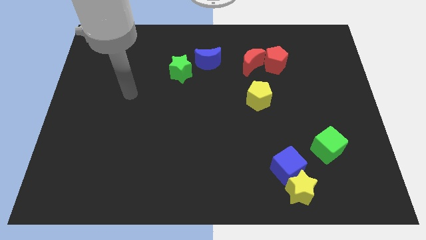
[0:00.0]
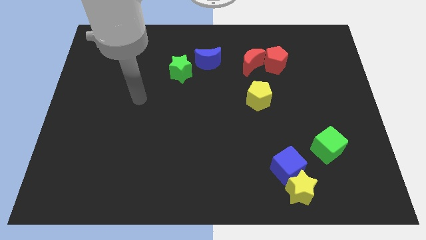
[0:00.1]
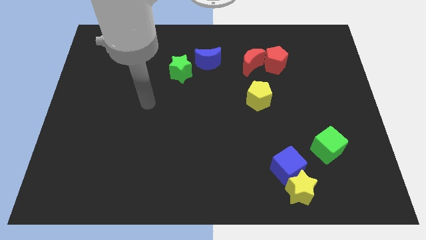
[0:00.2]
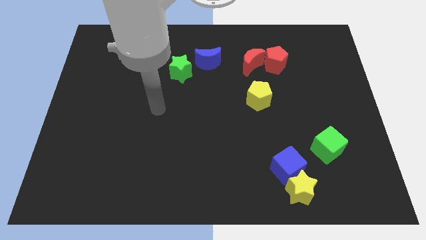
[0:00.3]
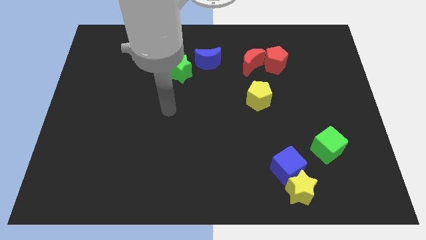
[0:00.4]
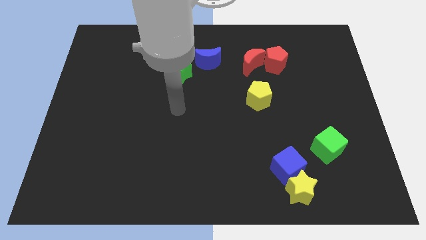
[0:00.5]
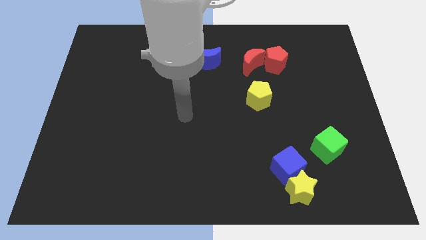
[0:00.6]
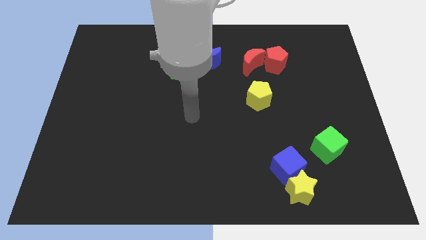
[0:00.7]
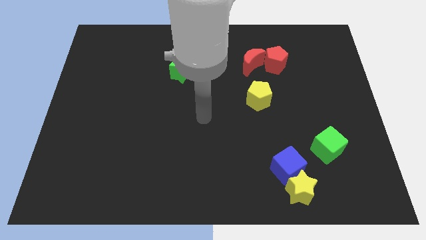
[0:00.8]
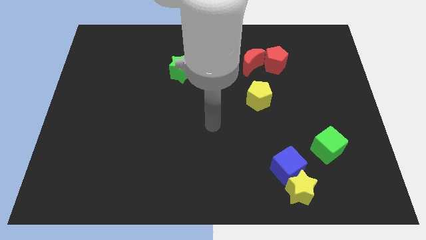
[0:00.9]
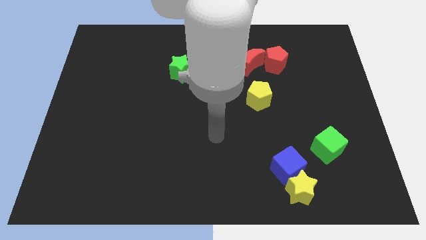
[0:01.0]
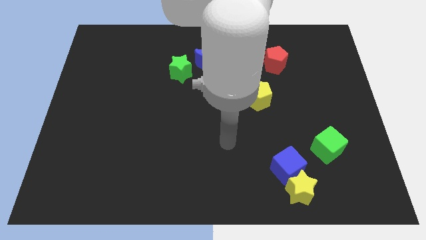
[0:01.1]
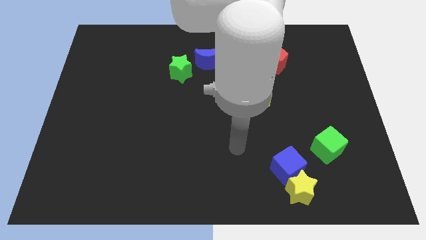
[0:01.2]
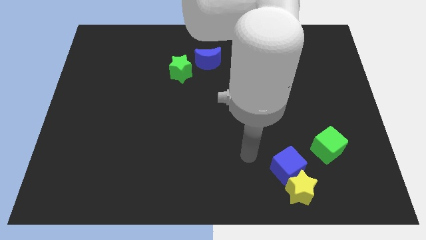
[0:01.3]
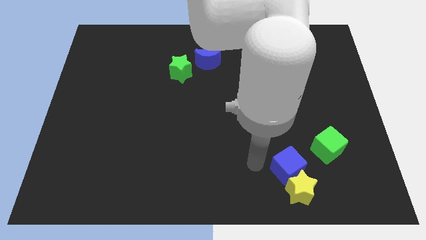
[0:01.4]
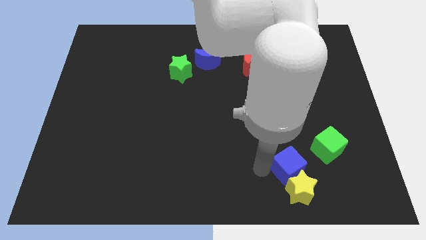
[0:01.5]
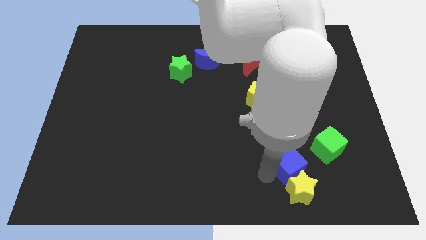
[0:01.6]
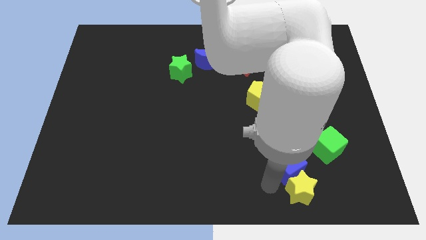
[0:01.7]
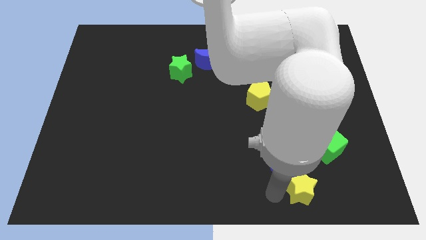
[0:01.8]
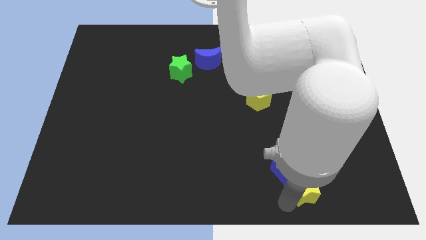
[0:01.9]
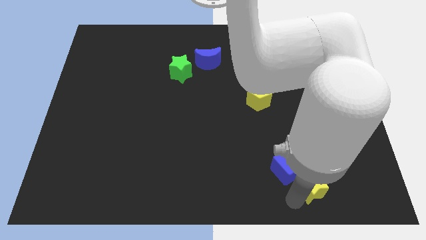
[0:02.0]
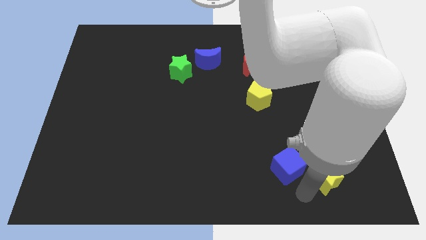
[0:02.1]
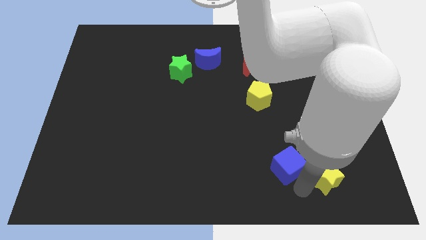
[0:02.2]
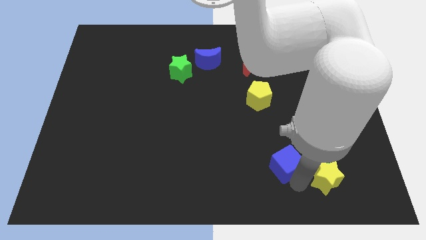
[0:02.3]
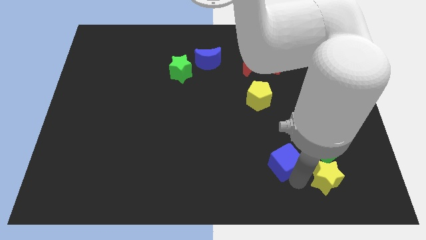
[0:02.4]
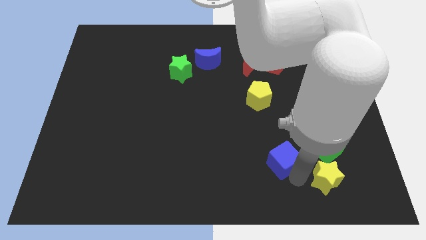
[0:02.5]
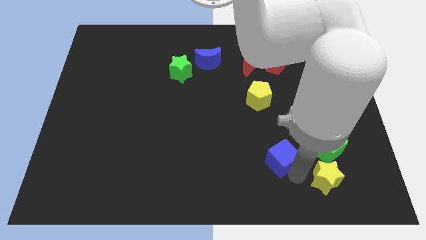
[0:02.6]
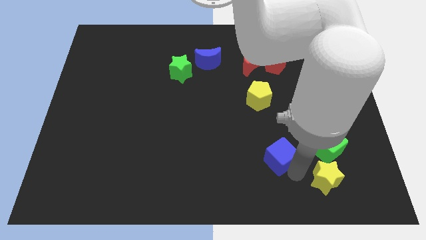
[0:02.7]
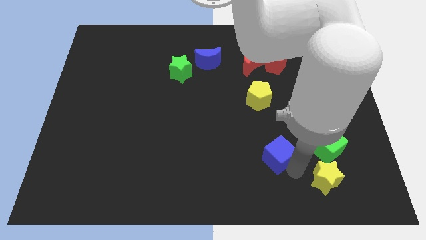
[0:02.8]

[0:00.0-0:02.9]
pull the blue cube apart from the yellow star

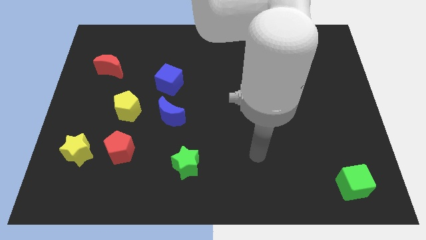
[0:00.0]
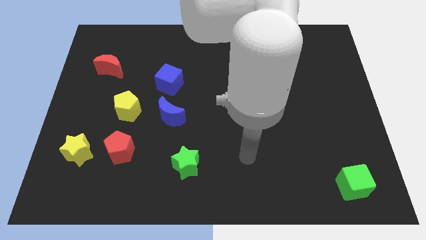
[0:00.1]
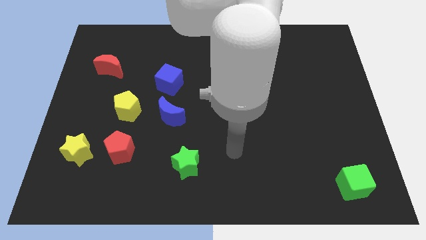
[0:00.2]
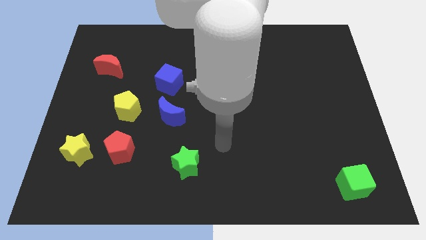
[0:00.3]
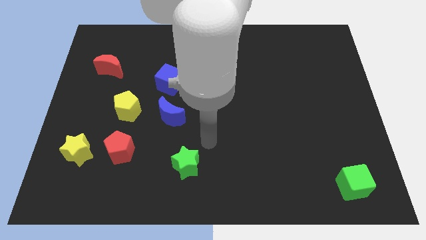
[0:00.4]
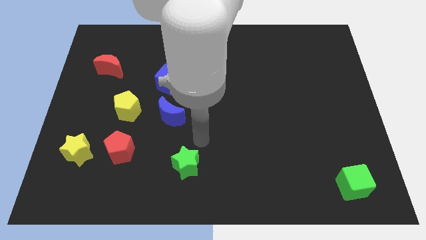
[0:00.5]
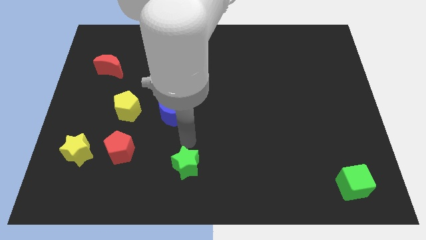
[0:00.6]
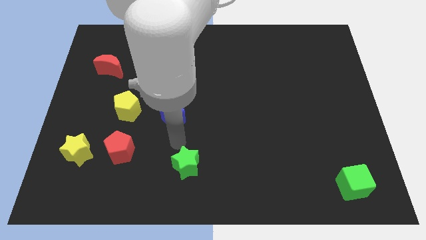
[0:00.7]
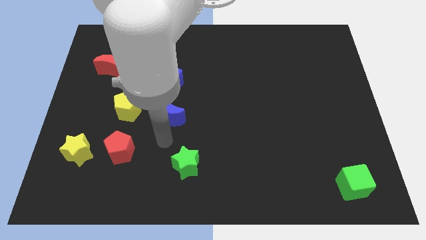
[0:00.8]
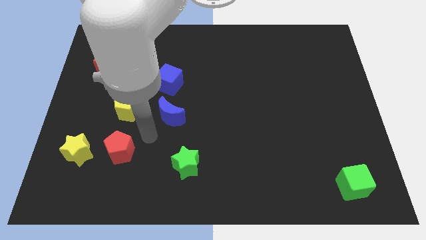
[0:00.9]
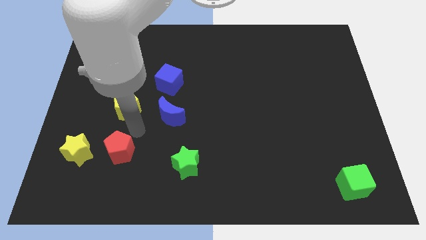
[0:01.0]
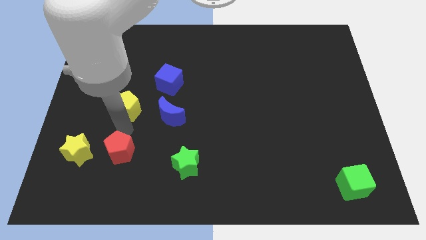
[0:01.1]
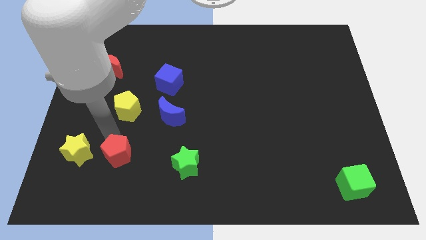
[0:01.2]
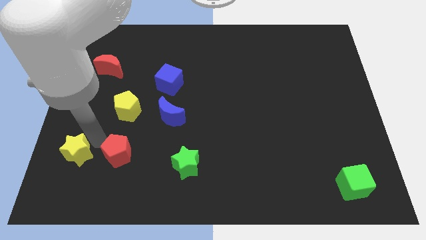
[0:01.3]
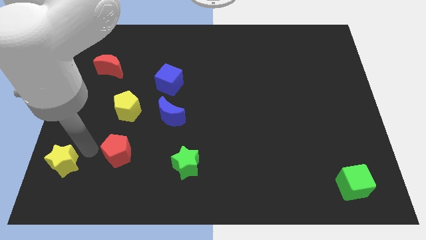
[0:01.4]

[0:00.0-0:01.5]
separate the red pentagon from the yellow star

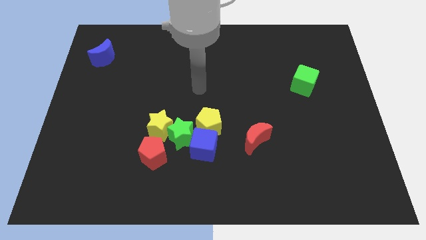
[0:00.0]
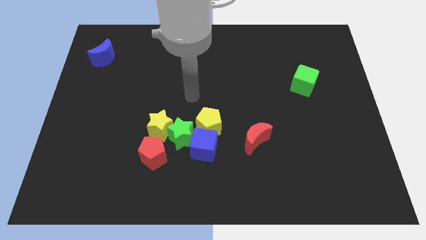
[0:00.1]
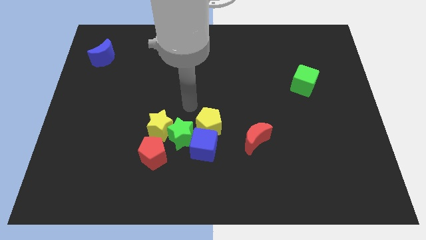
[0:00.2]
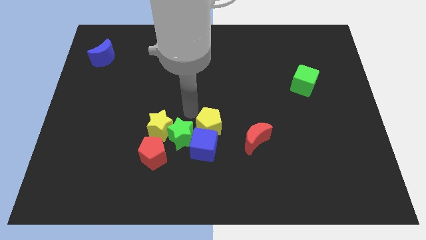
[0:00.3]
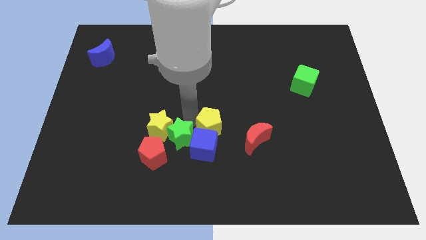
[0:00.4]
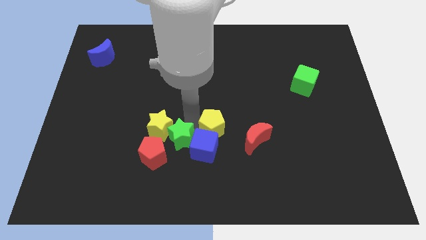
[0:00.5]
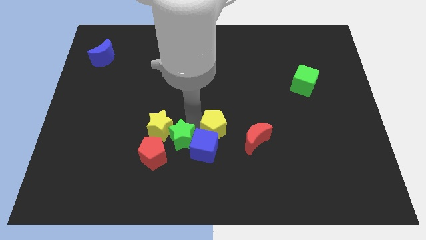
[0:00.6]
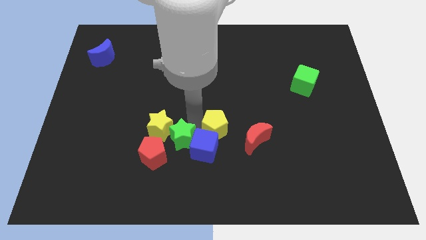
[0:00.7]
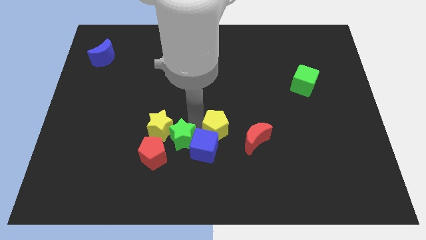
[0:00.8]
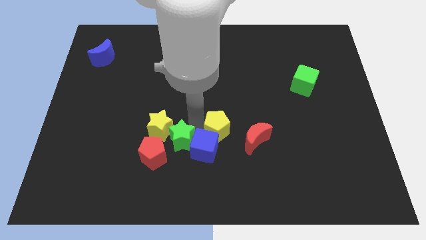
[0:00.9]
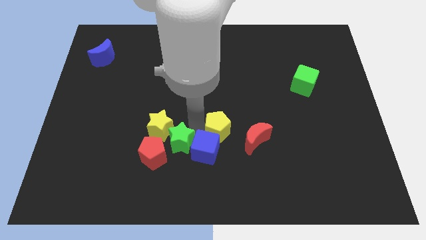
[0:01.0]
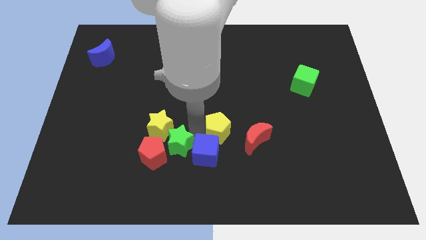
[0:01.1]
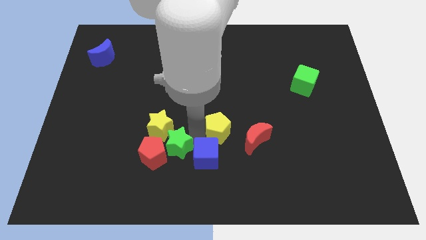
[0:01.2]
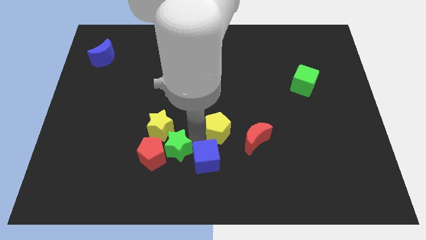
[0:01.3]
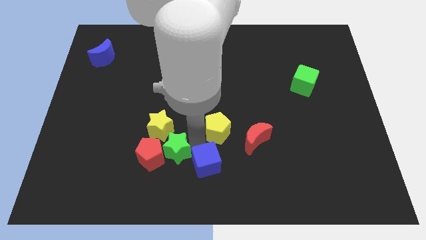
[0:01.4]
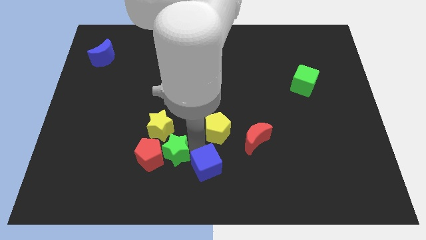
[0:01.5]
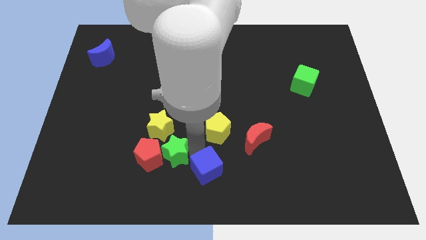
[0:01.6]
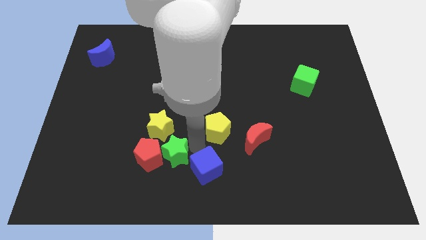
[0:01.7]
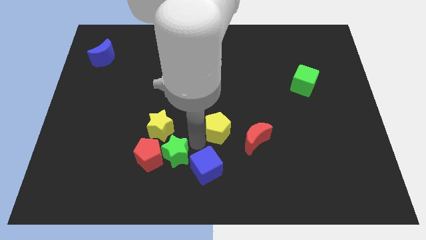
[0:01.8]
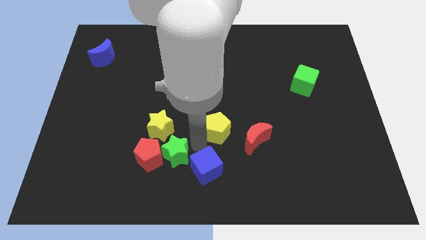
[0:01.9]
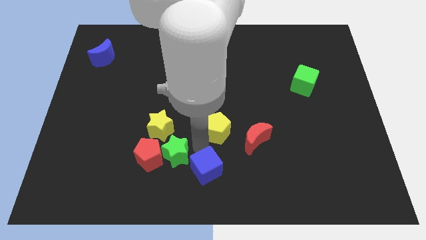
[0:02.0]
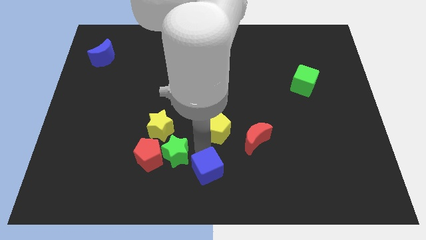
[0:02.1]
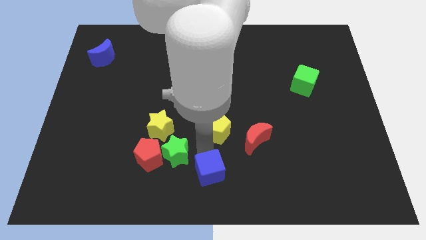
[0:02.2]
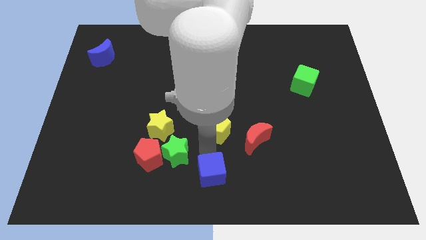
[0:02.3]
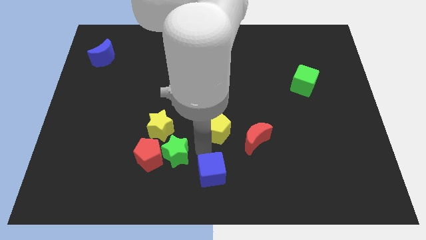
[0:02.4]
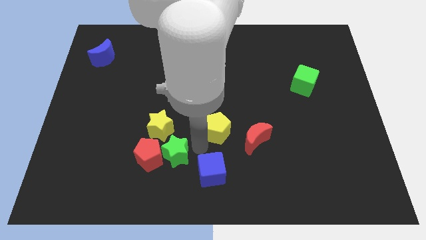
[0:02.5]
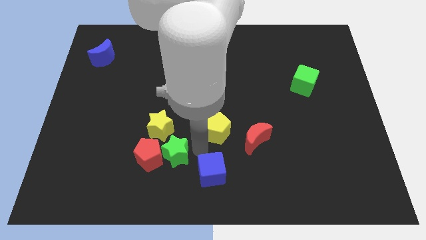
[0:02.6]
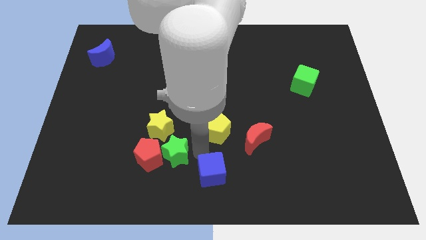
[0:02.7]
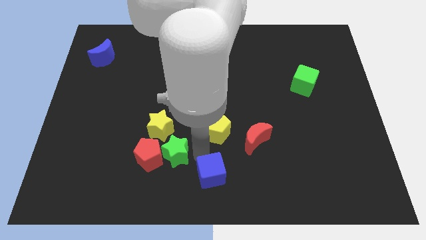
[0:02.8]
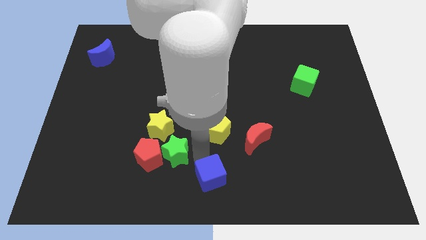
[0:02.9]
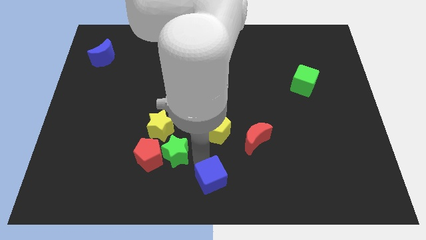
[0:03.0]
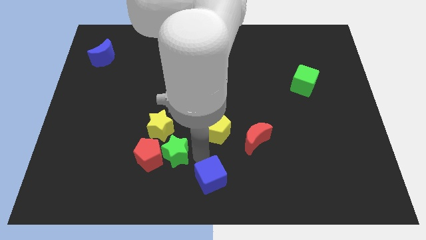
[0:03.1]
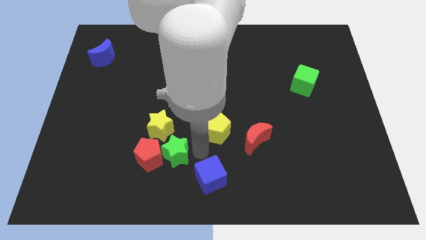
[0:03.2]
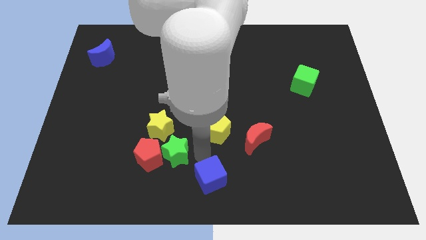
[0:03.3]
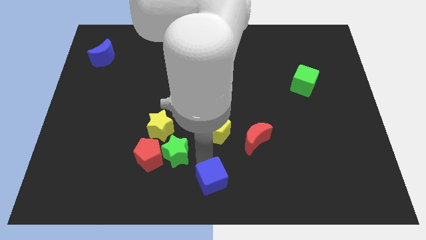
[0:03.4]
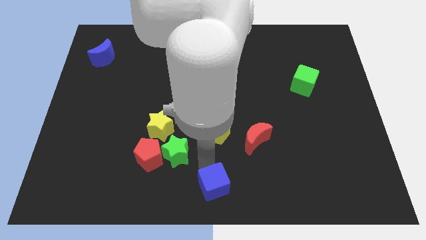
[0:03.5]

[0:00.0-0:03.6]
move the blue cube away from the green star and yellow pentagon

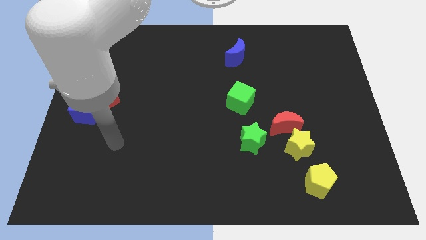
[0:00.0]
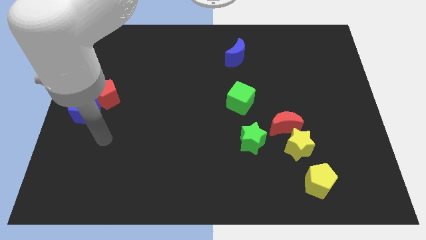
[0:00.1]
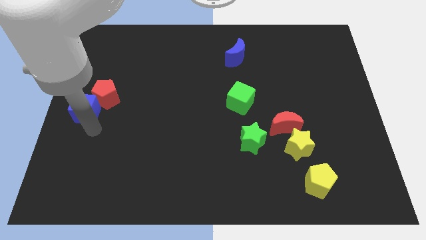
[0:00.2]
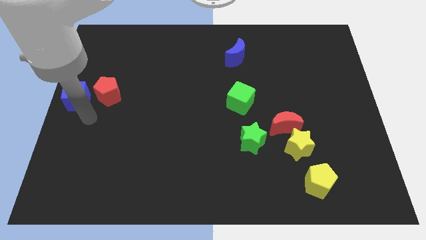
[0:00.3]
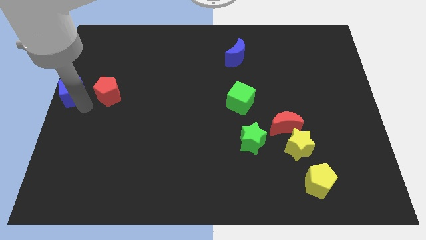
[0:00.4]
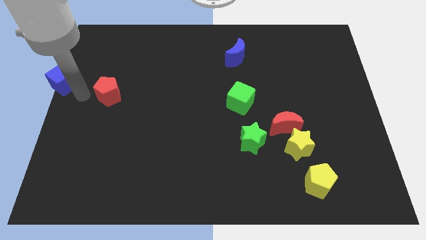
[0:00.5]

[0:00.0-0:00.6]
pull the red pentagon apart from the blue cube

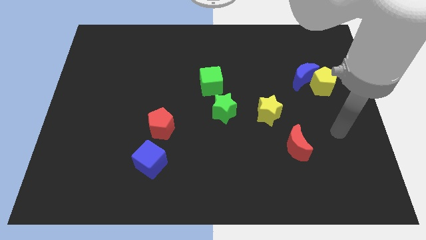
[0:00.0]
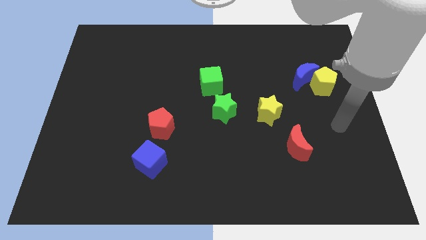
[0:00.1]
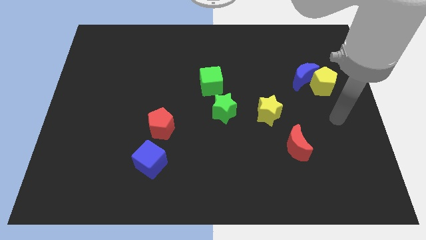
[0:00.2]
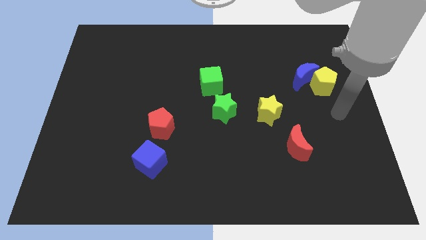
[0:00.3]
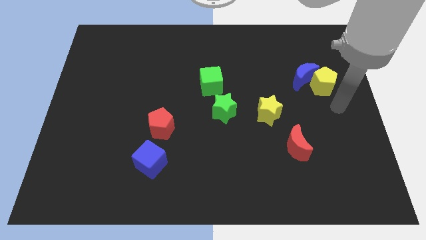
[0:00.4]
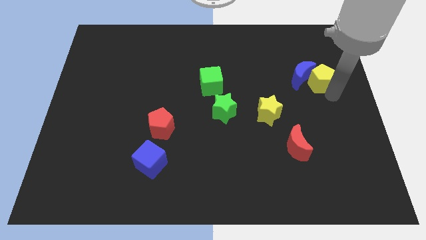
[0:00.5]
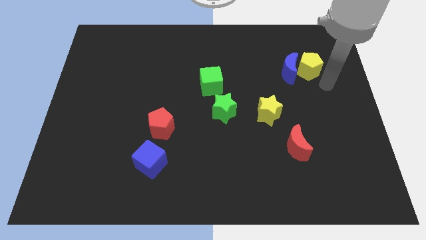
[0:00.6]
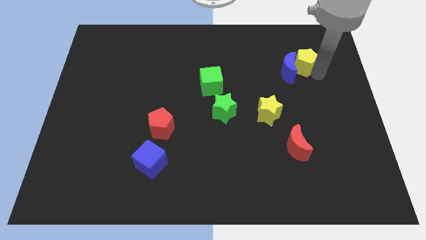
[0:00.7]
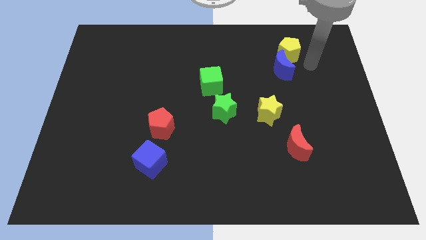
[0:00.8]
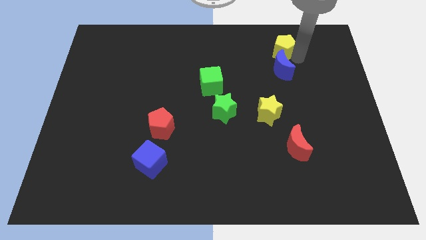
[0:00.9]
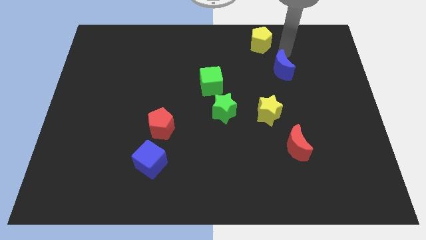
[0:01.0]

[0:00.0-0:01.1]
separate the blue moon from the yellow pentagon
